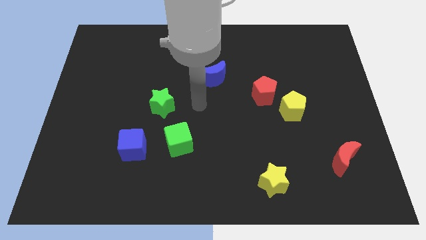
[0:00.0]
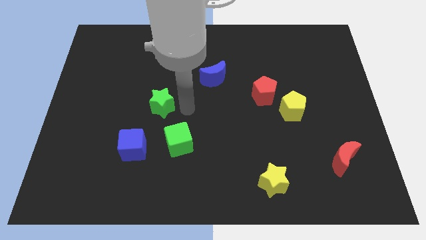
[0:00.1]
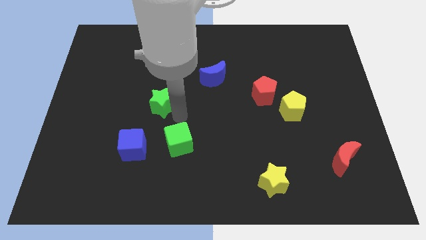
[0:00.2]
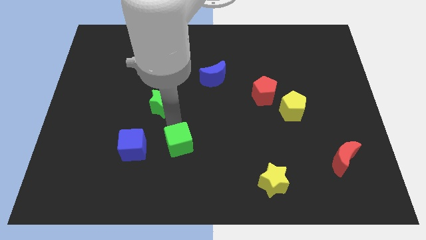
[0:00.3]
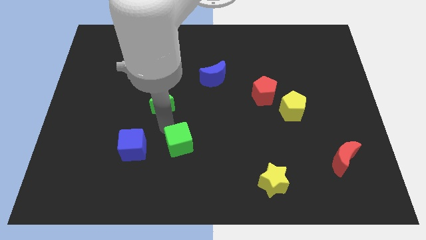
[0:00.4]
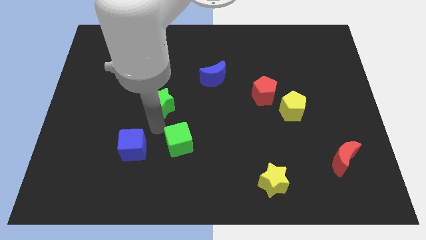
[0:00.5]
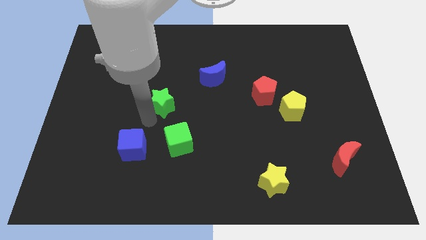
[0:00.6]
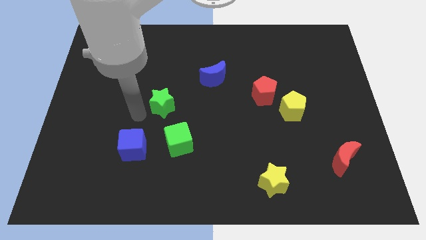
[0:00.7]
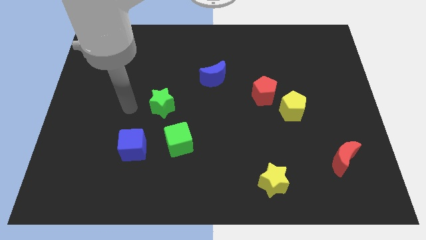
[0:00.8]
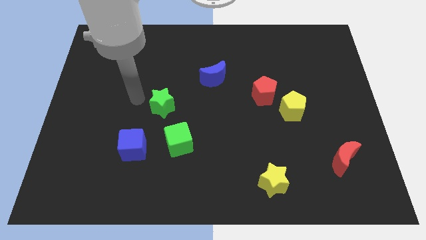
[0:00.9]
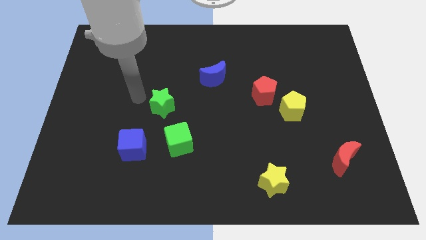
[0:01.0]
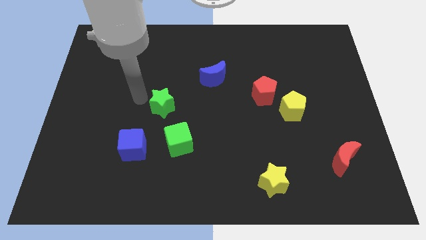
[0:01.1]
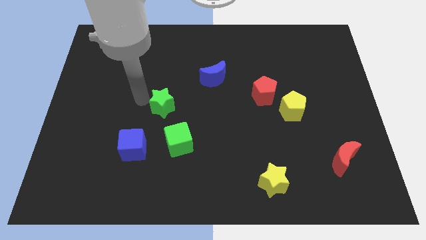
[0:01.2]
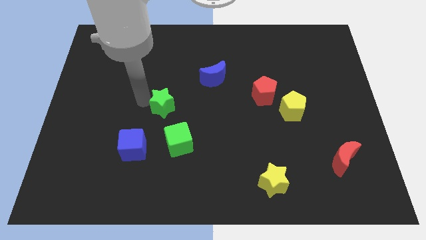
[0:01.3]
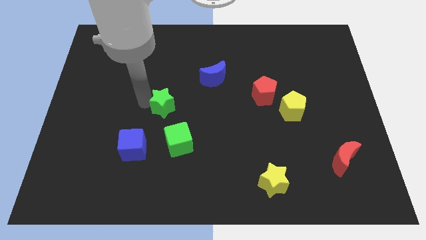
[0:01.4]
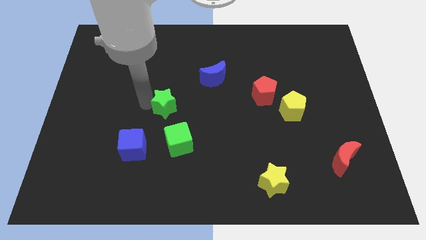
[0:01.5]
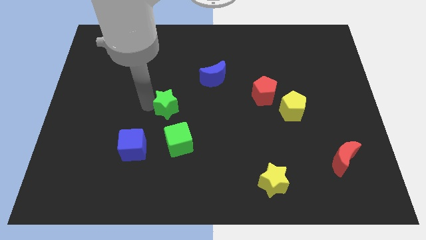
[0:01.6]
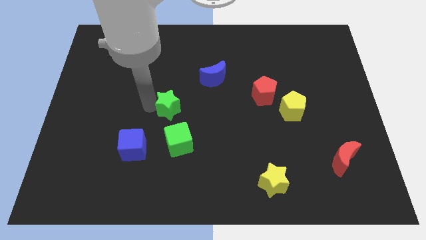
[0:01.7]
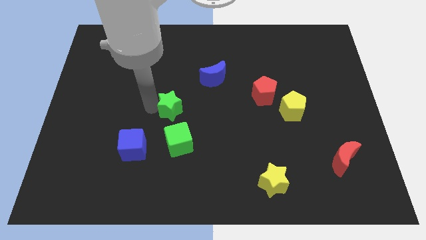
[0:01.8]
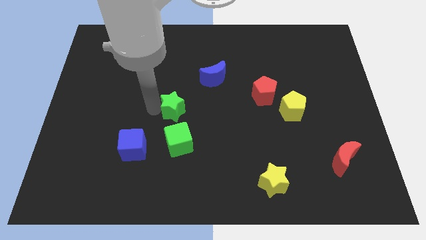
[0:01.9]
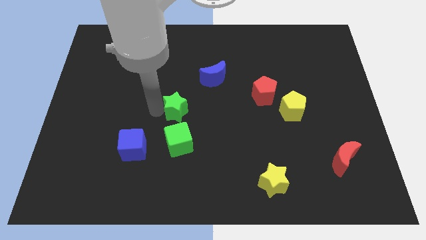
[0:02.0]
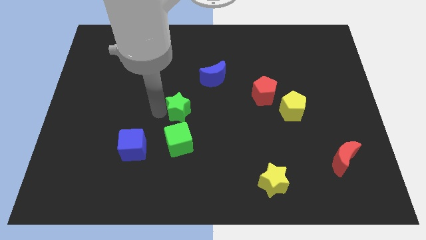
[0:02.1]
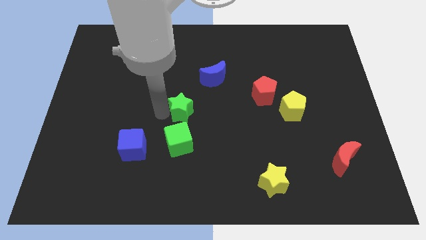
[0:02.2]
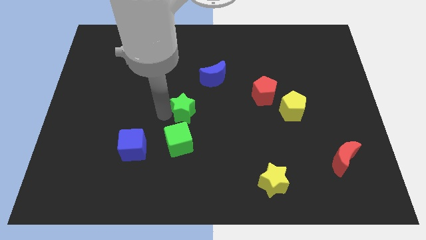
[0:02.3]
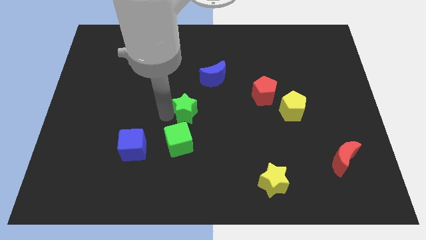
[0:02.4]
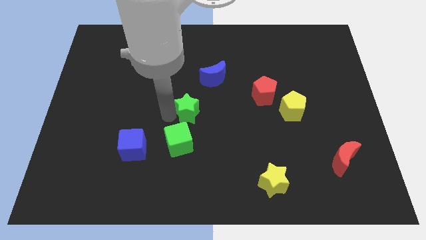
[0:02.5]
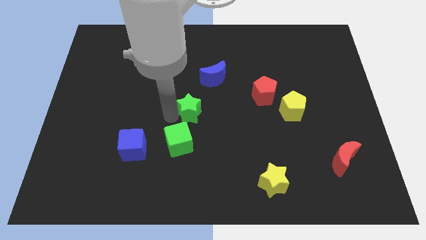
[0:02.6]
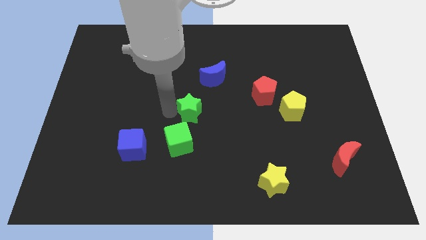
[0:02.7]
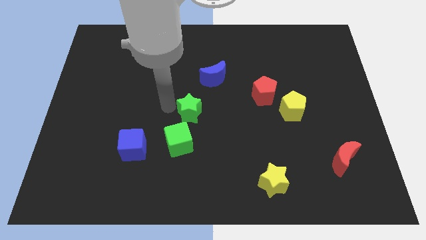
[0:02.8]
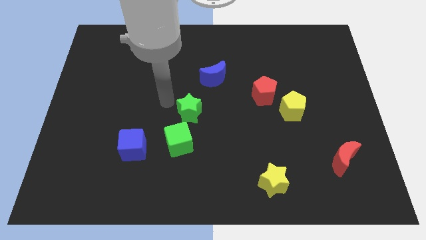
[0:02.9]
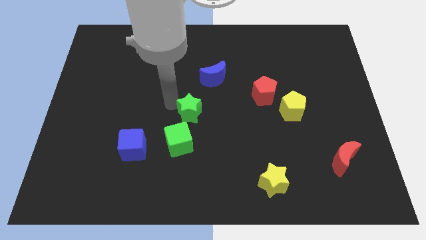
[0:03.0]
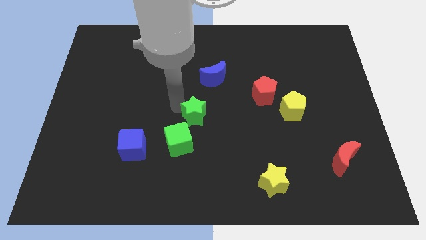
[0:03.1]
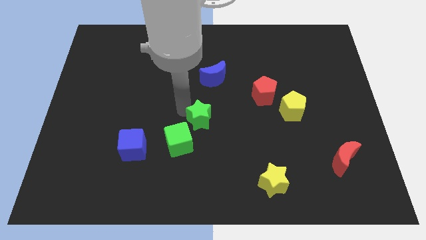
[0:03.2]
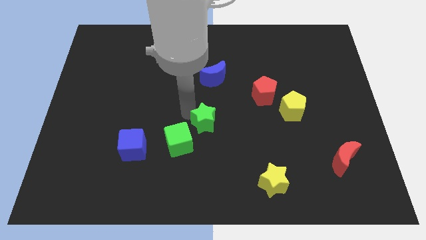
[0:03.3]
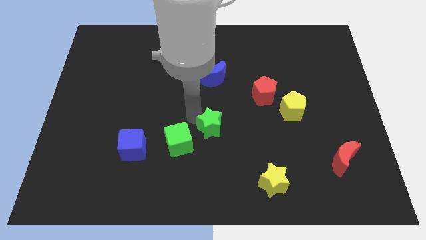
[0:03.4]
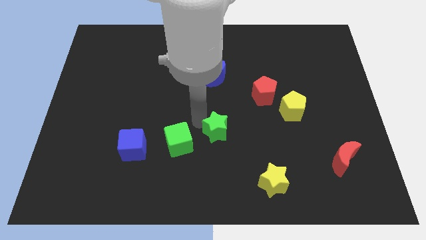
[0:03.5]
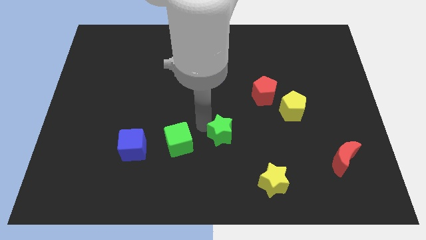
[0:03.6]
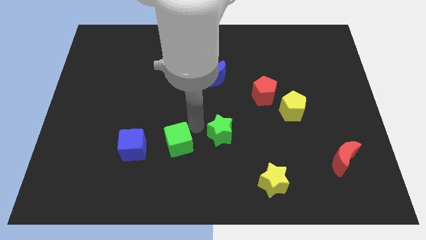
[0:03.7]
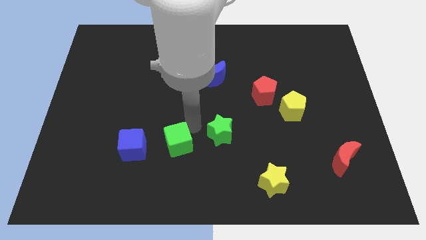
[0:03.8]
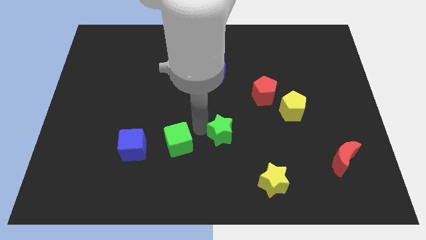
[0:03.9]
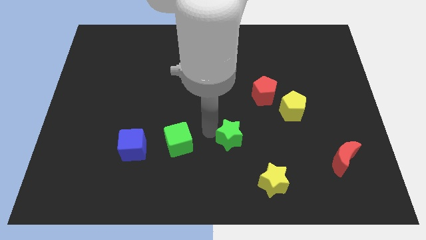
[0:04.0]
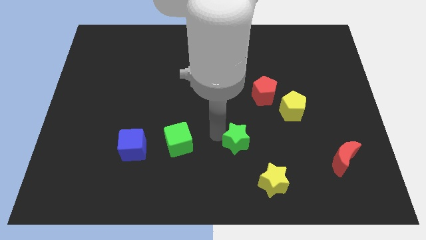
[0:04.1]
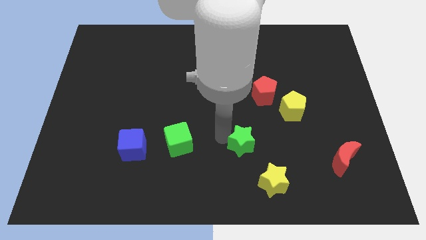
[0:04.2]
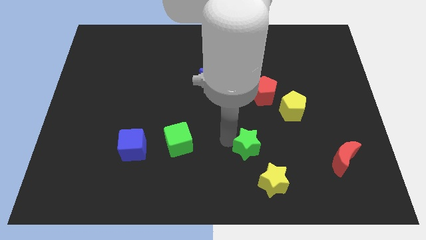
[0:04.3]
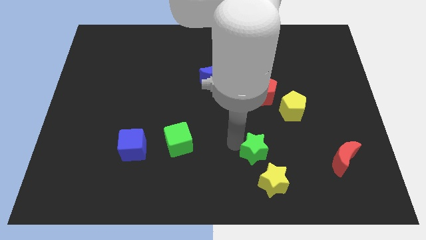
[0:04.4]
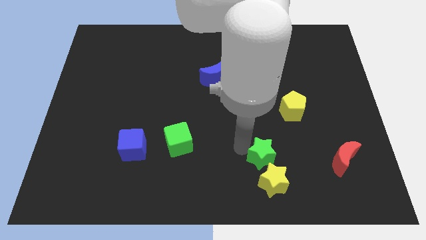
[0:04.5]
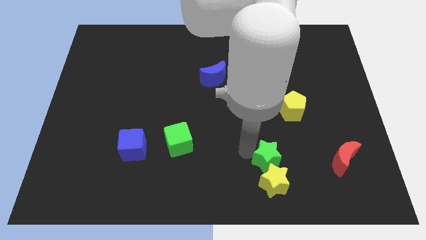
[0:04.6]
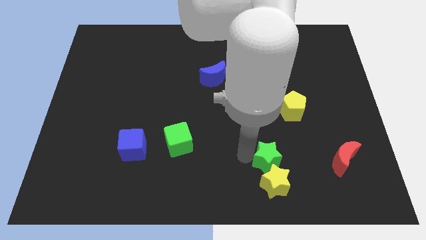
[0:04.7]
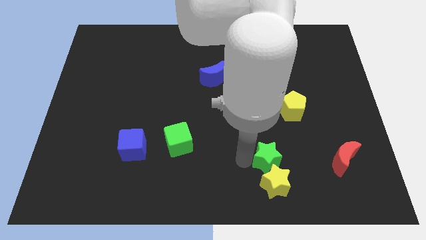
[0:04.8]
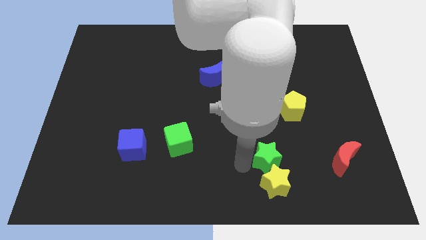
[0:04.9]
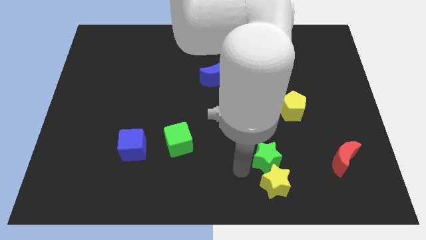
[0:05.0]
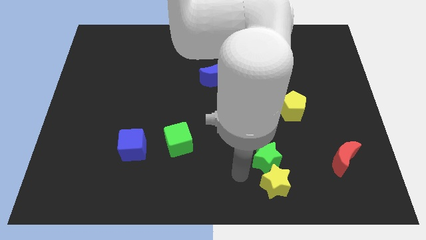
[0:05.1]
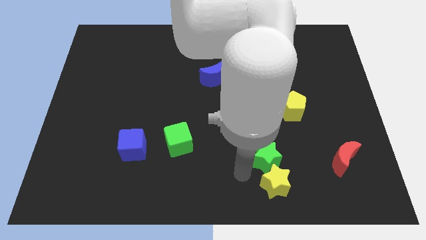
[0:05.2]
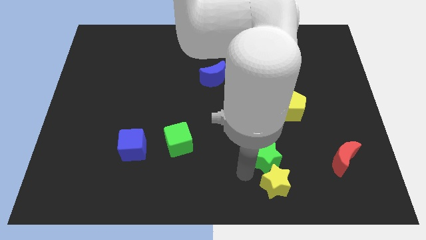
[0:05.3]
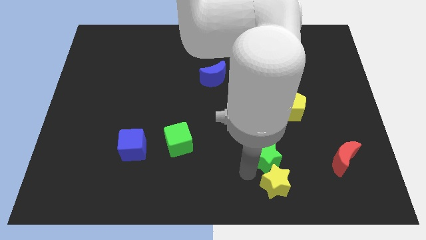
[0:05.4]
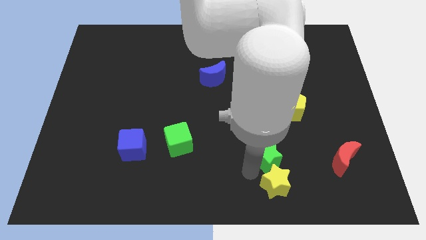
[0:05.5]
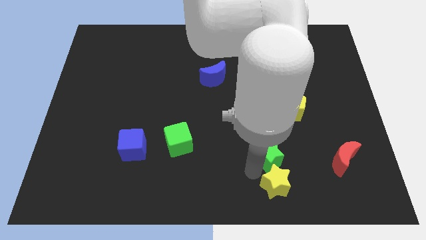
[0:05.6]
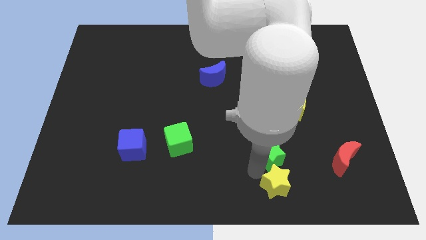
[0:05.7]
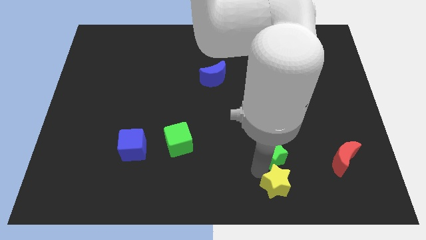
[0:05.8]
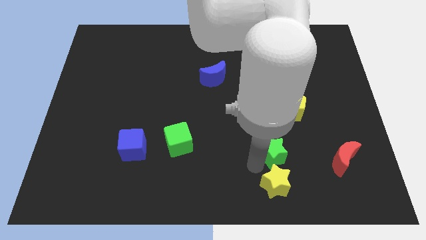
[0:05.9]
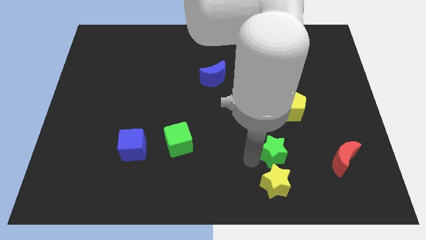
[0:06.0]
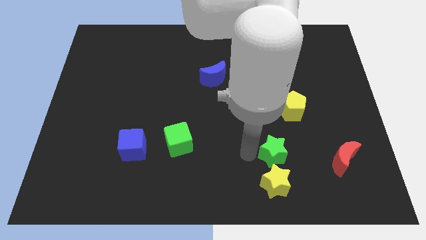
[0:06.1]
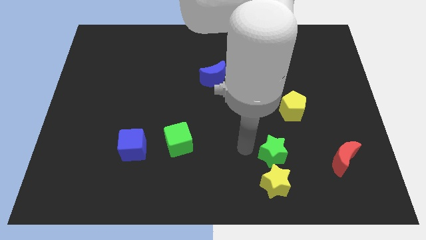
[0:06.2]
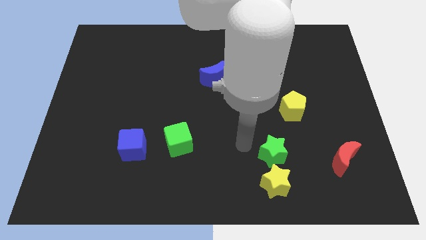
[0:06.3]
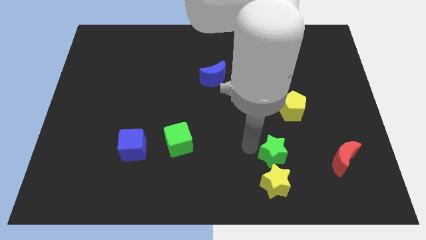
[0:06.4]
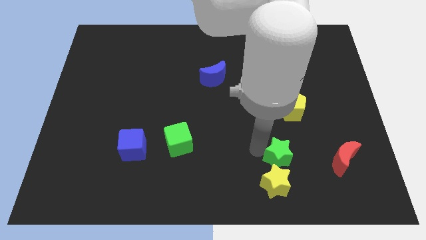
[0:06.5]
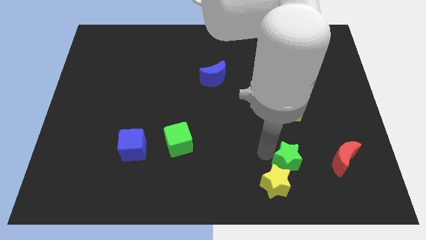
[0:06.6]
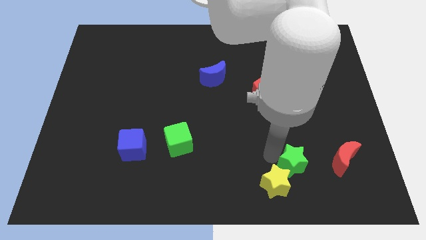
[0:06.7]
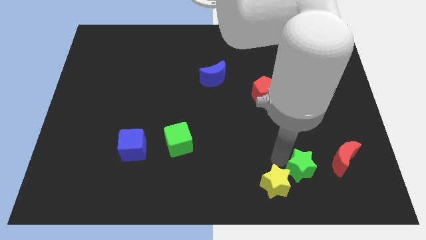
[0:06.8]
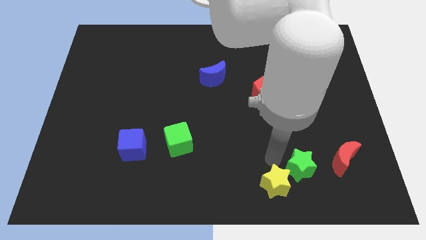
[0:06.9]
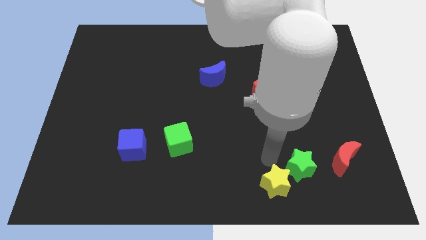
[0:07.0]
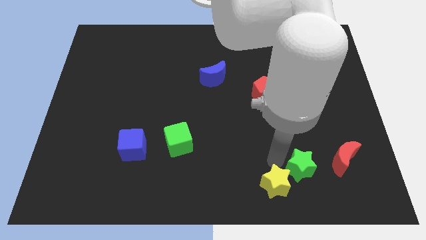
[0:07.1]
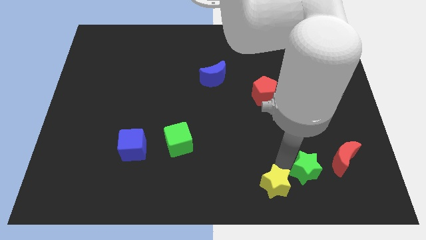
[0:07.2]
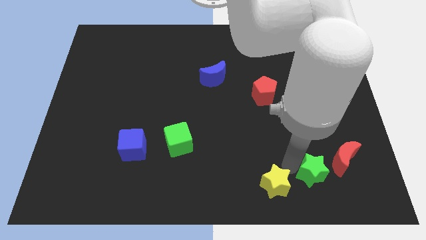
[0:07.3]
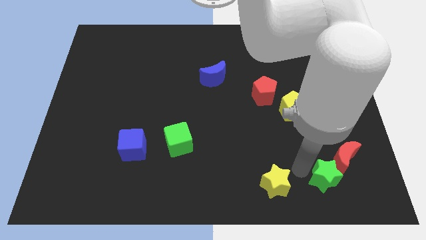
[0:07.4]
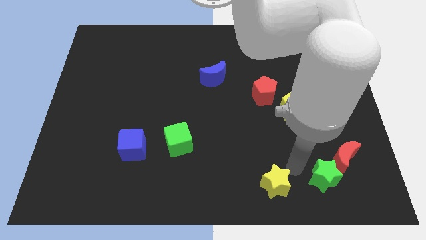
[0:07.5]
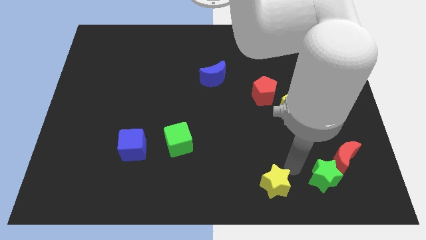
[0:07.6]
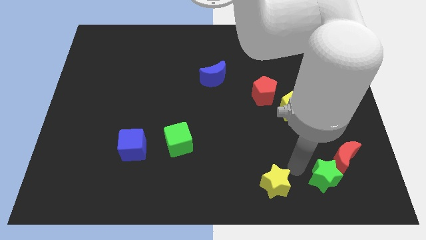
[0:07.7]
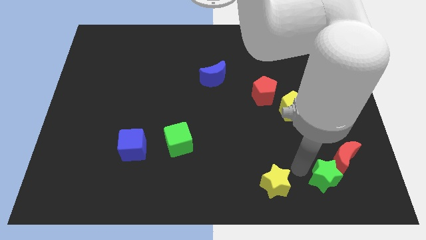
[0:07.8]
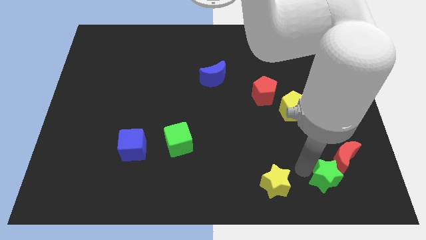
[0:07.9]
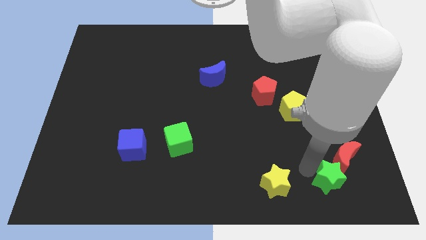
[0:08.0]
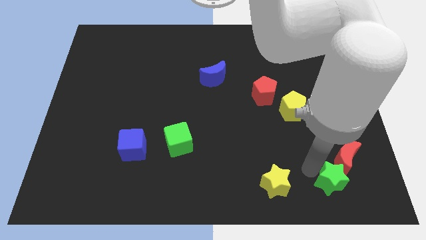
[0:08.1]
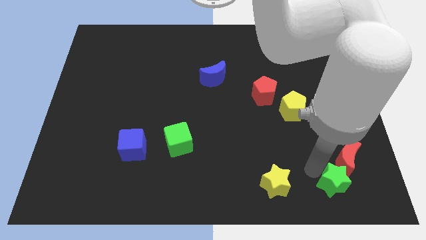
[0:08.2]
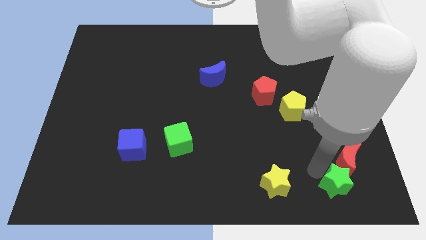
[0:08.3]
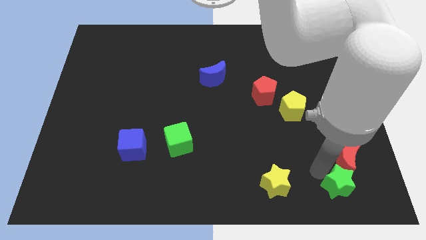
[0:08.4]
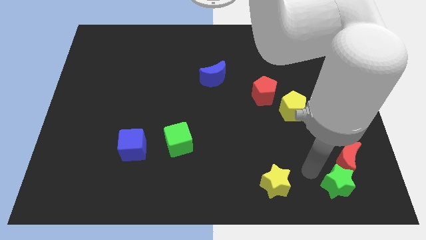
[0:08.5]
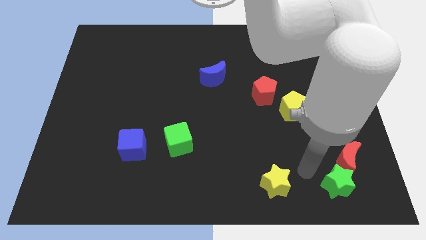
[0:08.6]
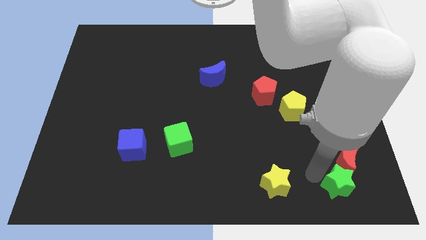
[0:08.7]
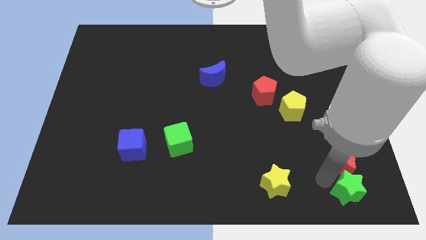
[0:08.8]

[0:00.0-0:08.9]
put the green star to the bottom right of the board
